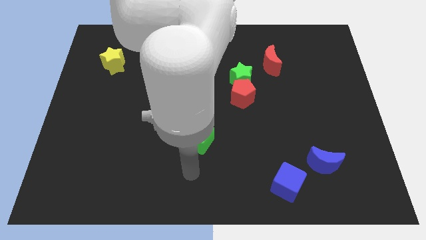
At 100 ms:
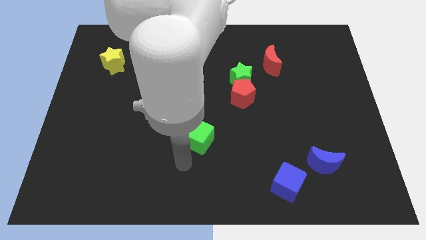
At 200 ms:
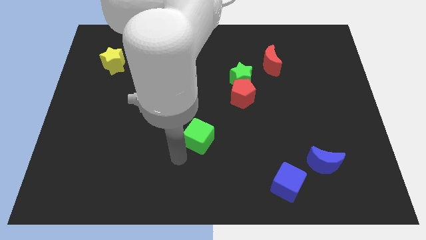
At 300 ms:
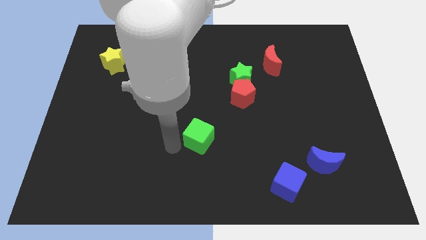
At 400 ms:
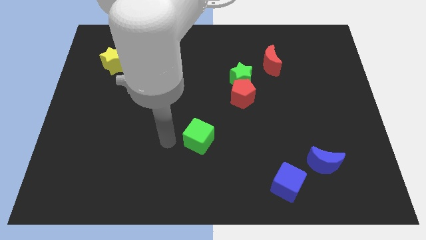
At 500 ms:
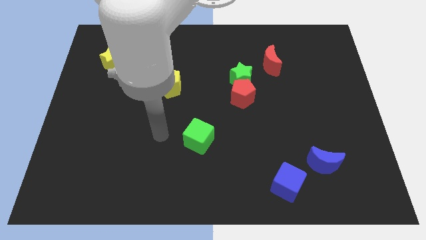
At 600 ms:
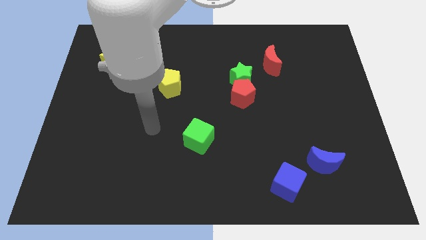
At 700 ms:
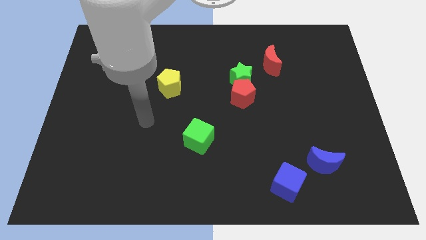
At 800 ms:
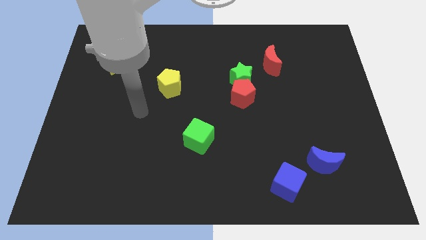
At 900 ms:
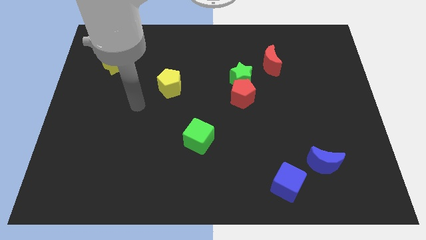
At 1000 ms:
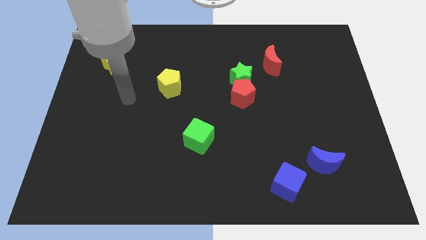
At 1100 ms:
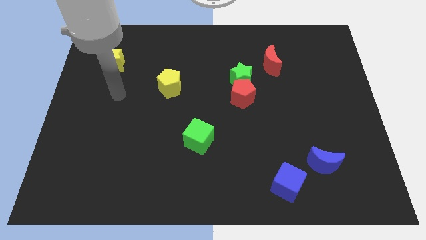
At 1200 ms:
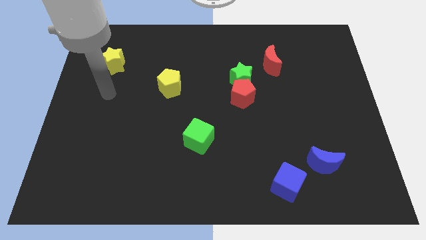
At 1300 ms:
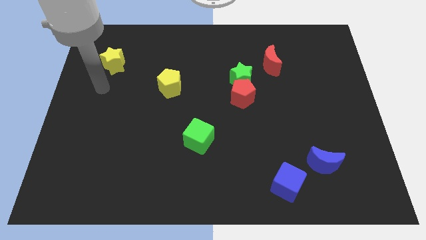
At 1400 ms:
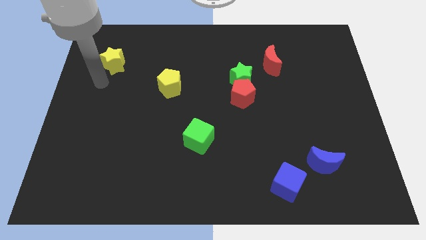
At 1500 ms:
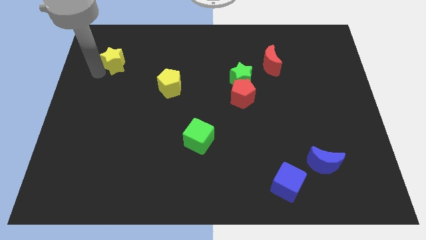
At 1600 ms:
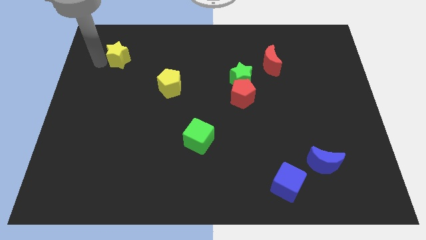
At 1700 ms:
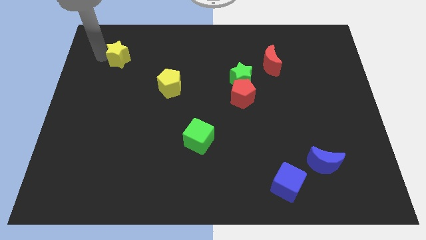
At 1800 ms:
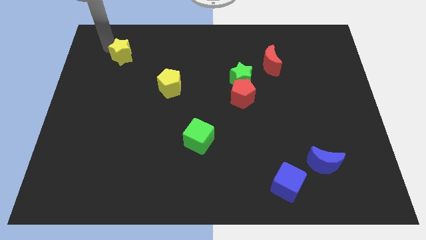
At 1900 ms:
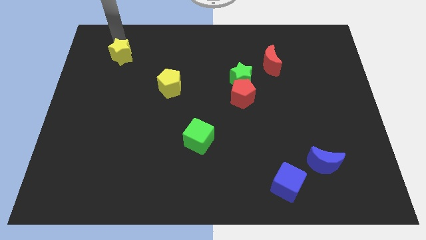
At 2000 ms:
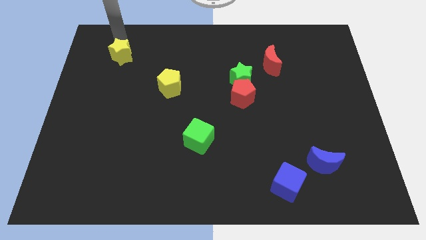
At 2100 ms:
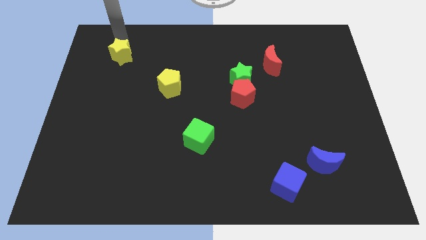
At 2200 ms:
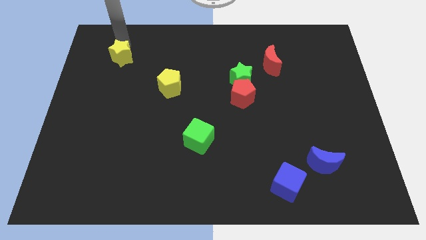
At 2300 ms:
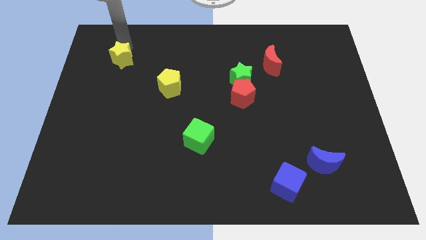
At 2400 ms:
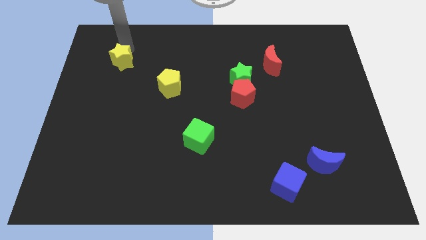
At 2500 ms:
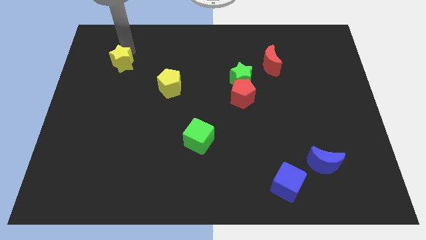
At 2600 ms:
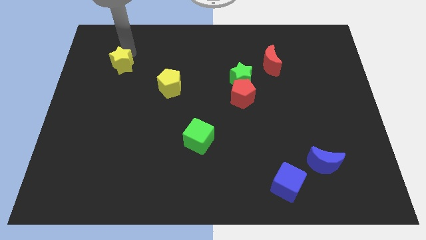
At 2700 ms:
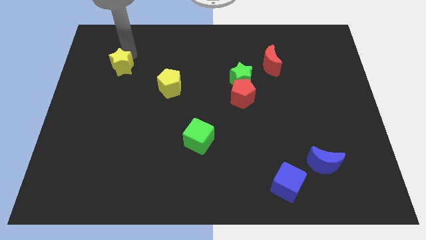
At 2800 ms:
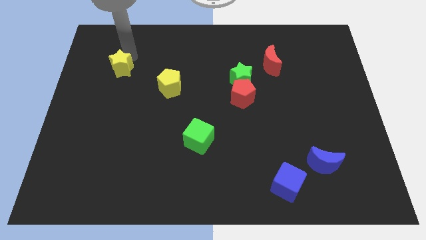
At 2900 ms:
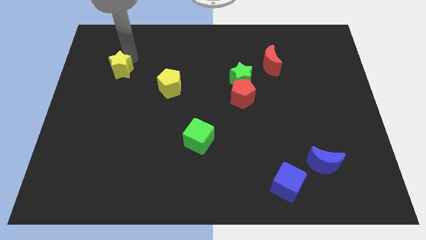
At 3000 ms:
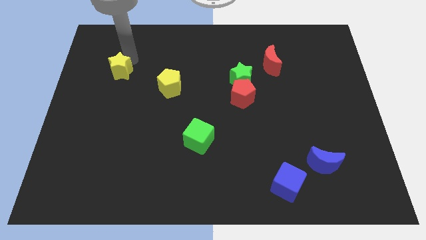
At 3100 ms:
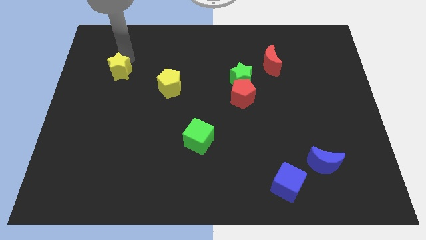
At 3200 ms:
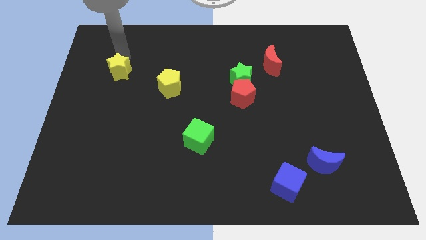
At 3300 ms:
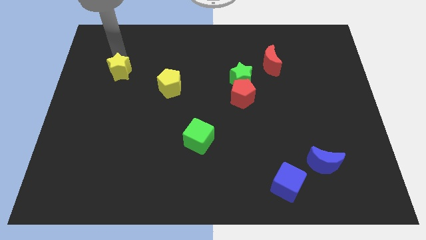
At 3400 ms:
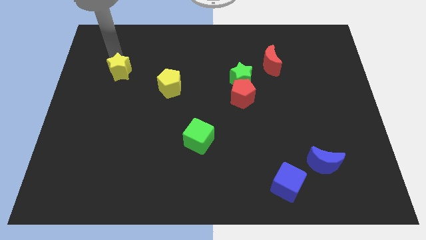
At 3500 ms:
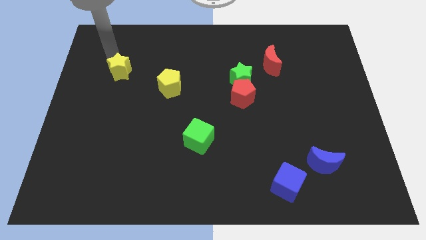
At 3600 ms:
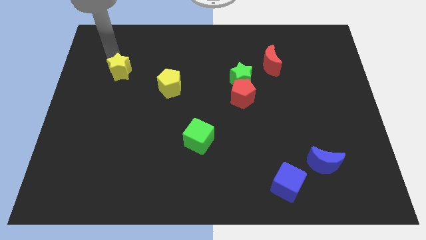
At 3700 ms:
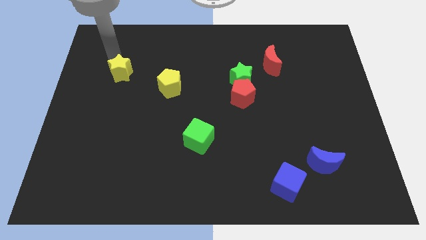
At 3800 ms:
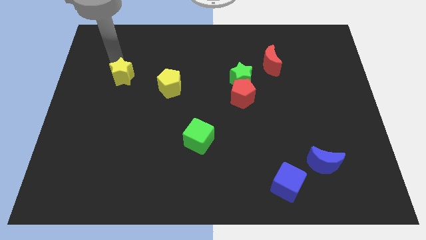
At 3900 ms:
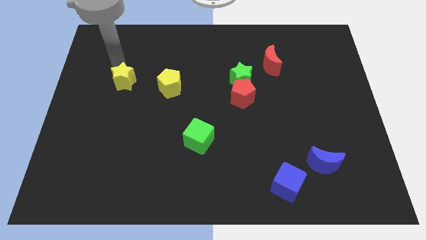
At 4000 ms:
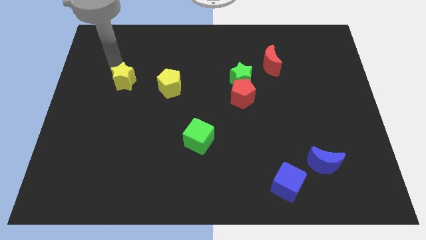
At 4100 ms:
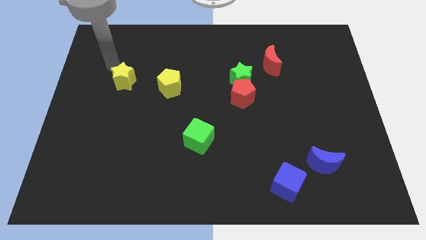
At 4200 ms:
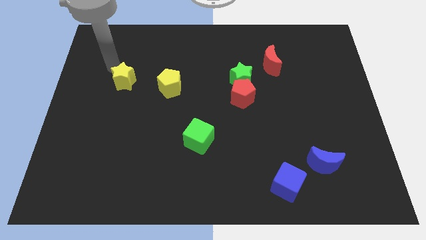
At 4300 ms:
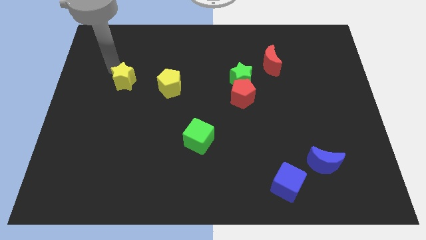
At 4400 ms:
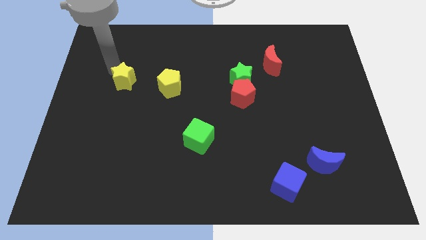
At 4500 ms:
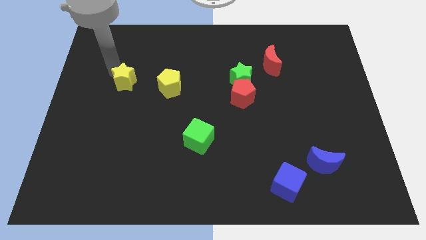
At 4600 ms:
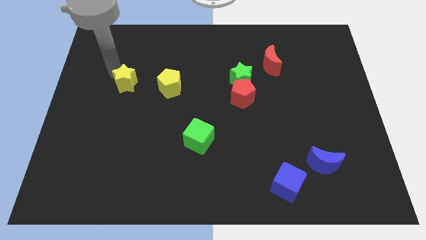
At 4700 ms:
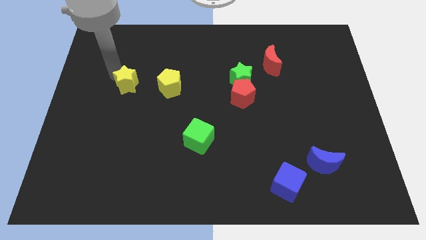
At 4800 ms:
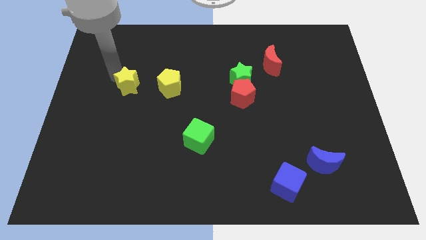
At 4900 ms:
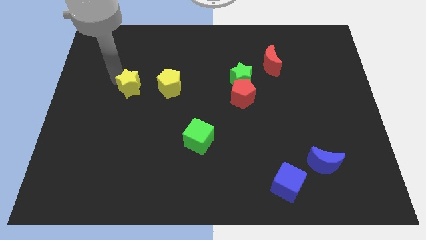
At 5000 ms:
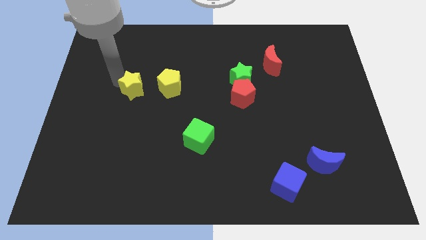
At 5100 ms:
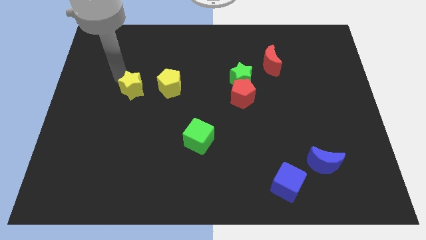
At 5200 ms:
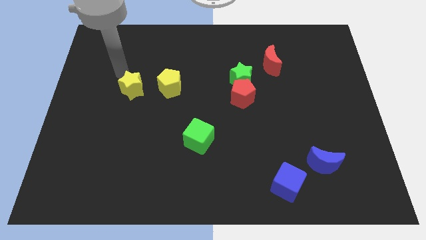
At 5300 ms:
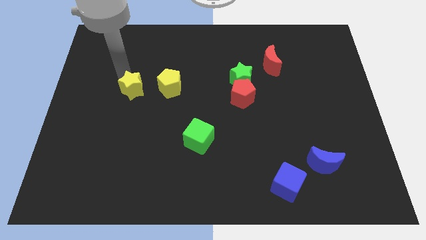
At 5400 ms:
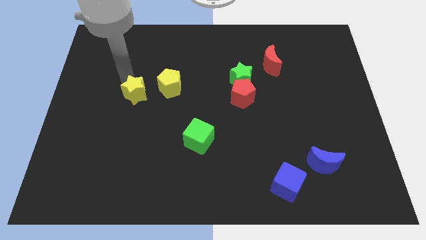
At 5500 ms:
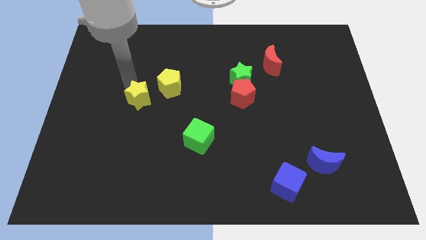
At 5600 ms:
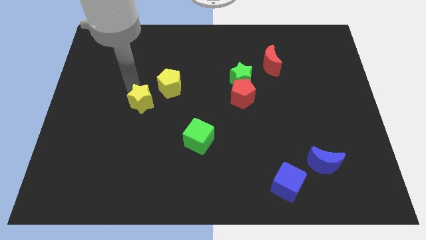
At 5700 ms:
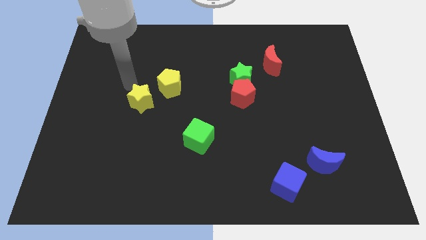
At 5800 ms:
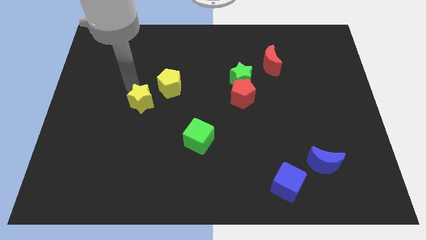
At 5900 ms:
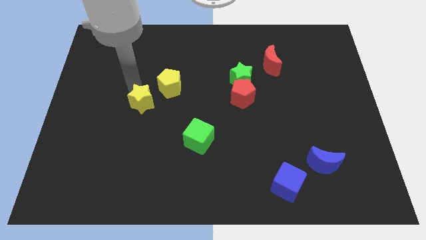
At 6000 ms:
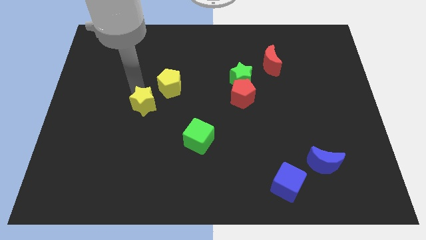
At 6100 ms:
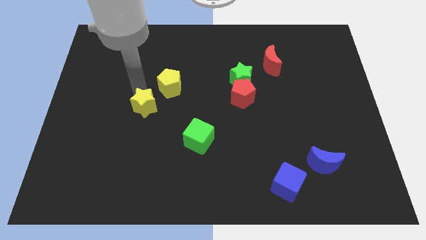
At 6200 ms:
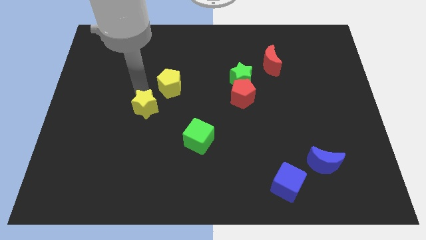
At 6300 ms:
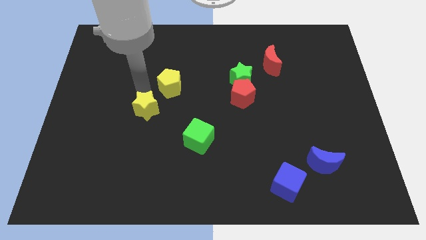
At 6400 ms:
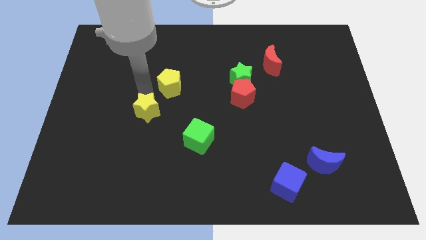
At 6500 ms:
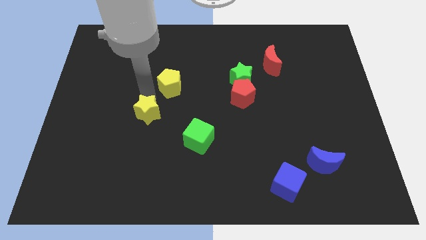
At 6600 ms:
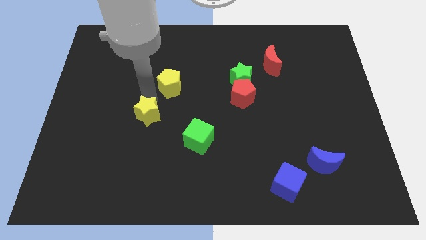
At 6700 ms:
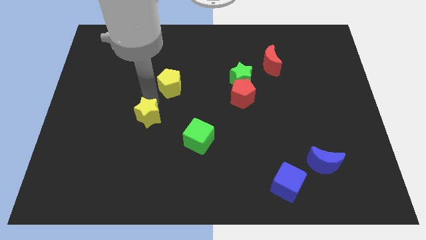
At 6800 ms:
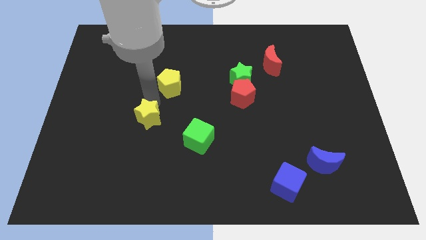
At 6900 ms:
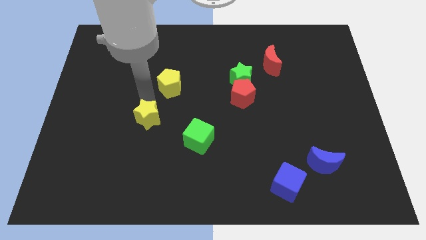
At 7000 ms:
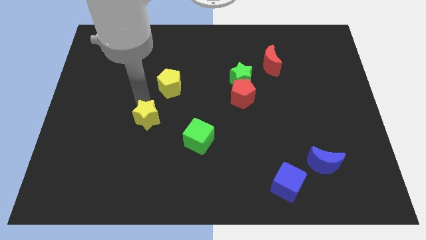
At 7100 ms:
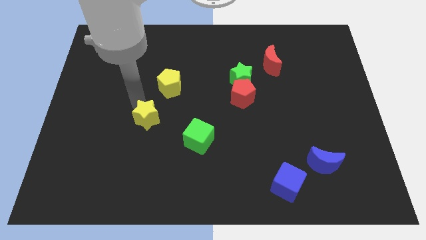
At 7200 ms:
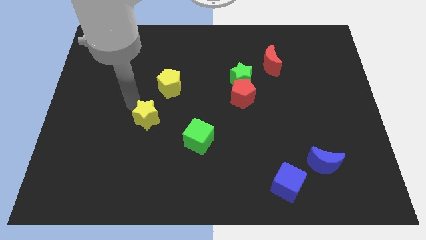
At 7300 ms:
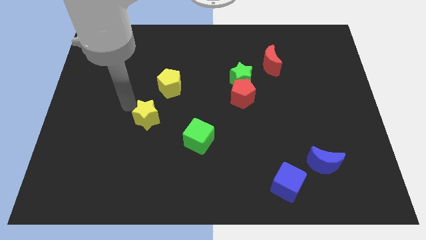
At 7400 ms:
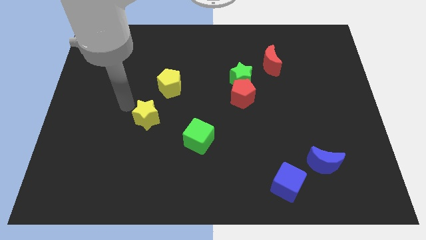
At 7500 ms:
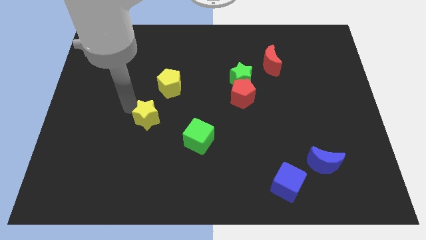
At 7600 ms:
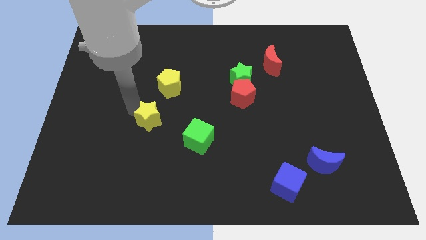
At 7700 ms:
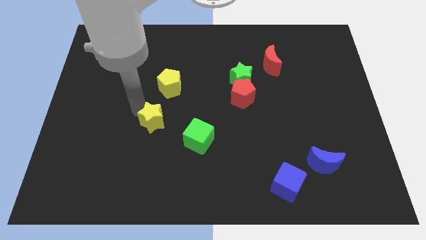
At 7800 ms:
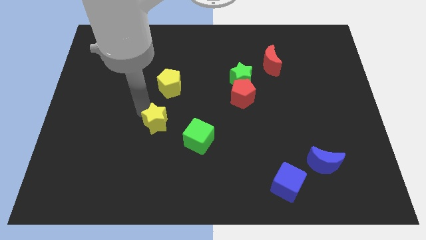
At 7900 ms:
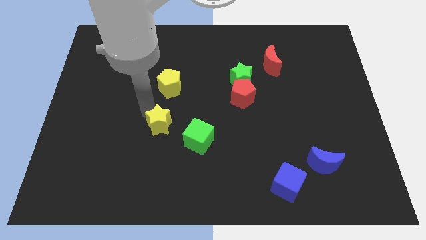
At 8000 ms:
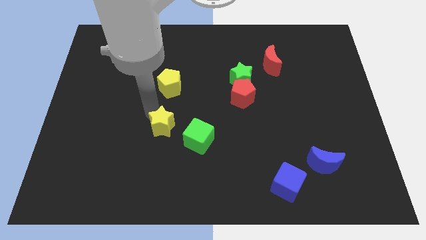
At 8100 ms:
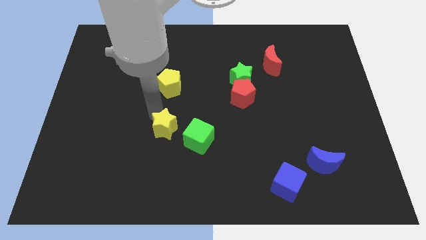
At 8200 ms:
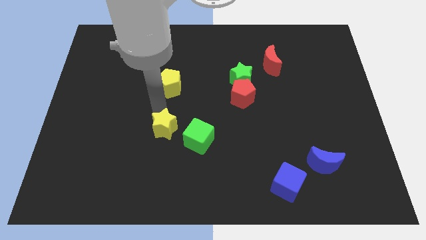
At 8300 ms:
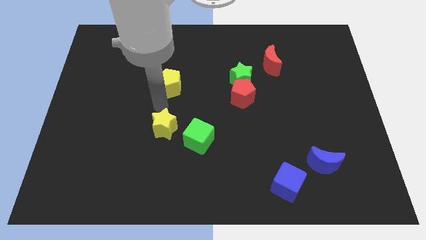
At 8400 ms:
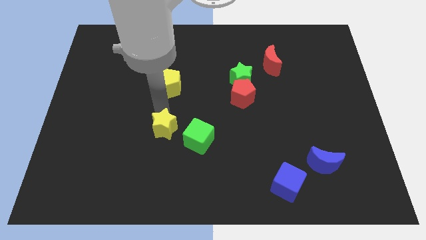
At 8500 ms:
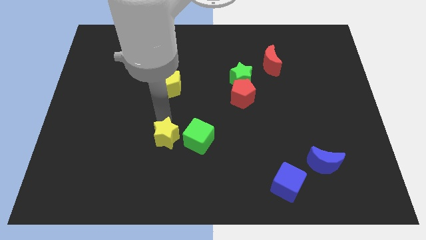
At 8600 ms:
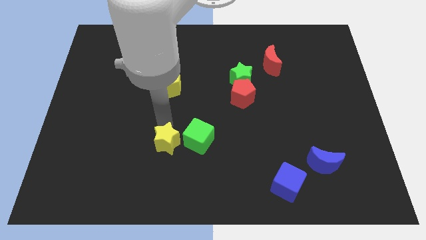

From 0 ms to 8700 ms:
put the yellow star to the bottom left side of the green cube
